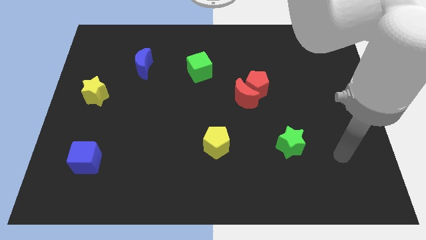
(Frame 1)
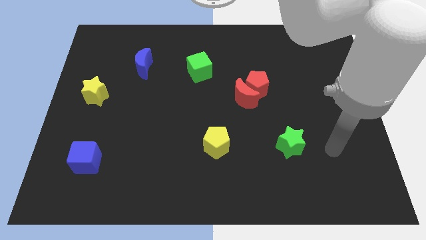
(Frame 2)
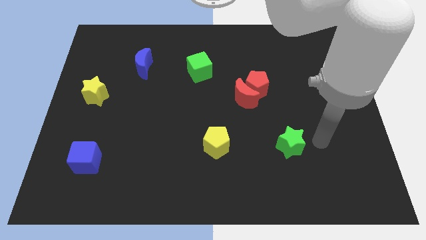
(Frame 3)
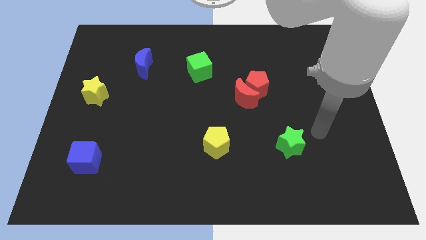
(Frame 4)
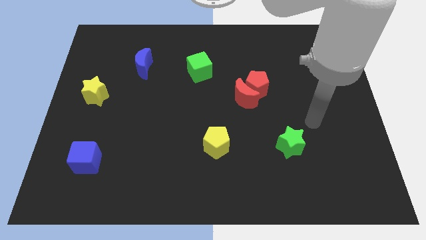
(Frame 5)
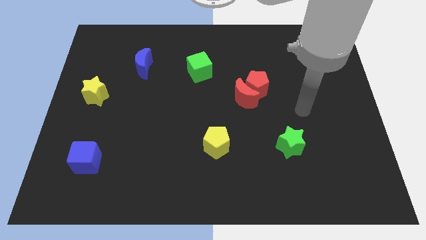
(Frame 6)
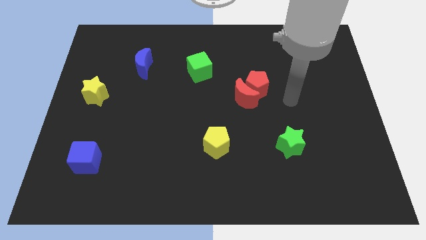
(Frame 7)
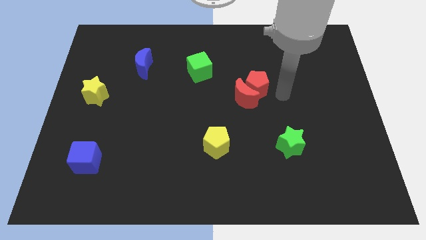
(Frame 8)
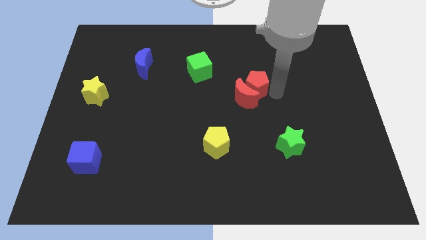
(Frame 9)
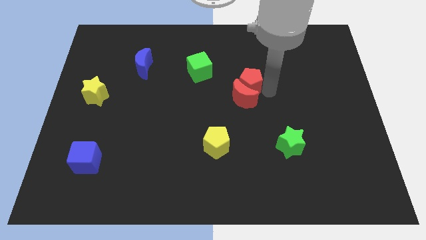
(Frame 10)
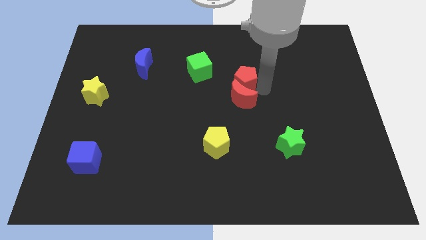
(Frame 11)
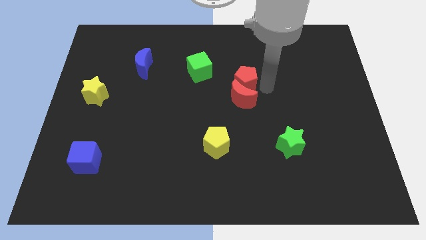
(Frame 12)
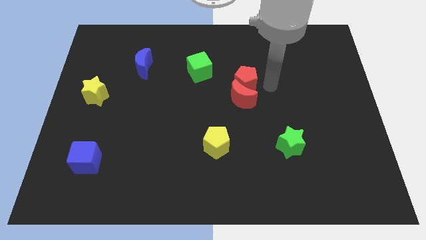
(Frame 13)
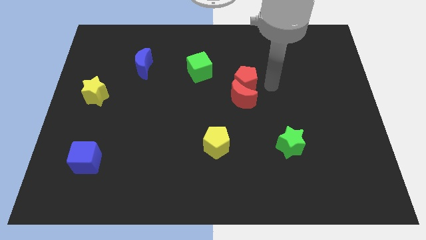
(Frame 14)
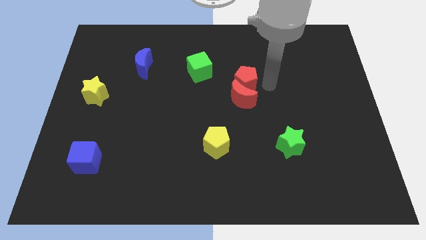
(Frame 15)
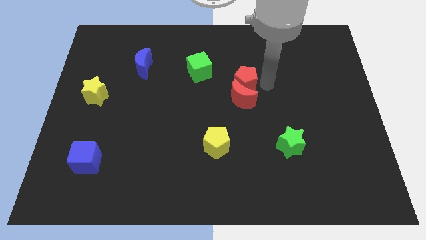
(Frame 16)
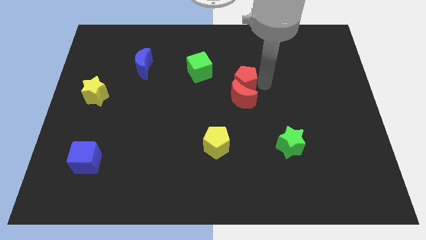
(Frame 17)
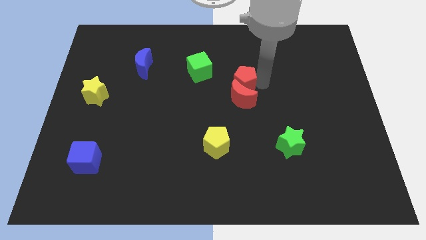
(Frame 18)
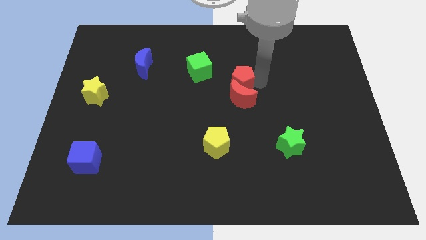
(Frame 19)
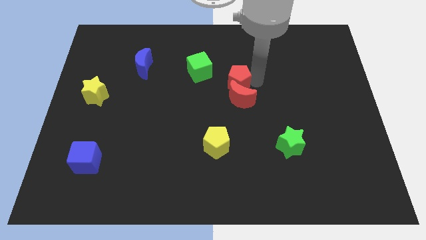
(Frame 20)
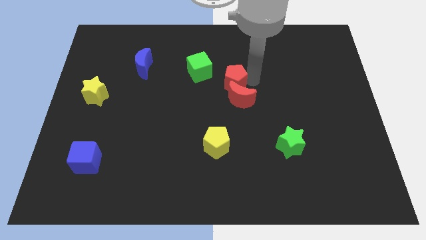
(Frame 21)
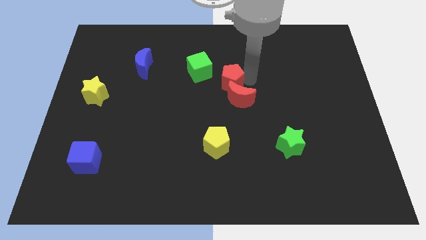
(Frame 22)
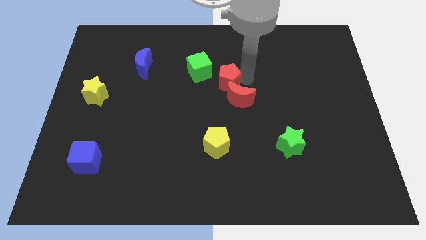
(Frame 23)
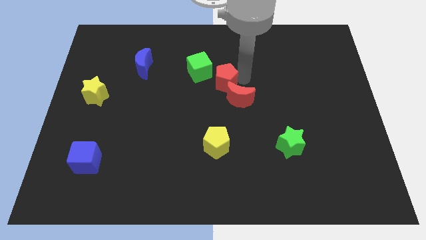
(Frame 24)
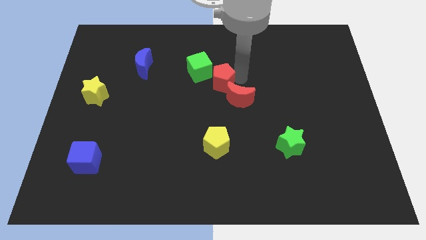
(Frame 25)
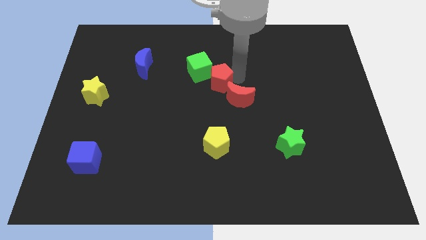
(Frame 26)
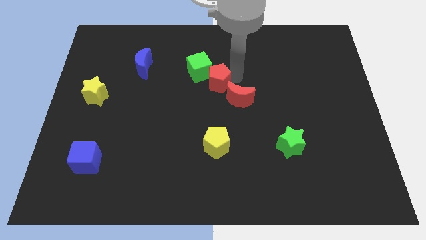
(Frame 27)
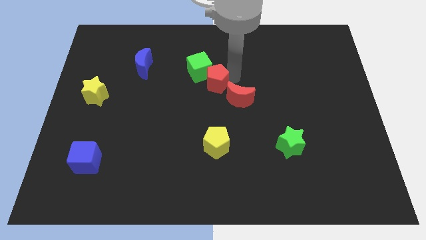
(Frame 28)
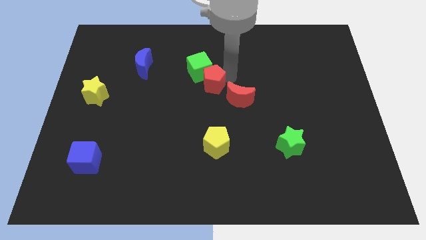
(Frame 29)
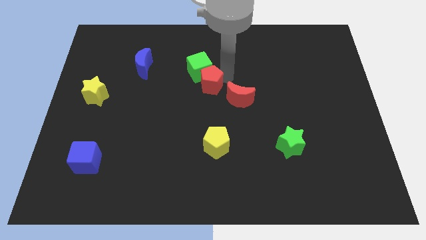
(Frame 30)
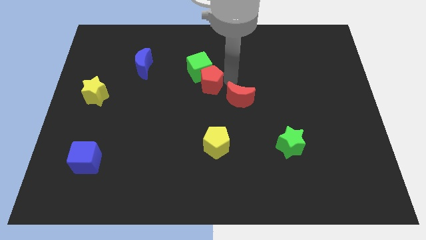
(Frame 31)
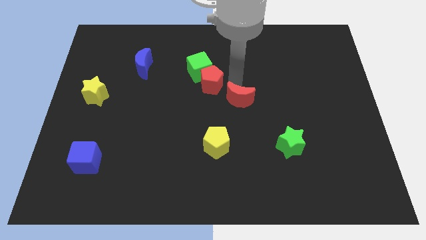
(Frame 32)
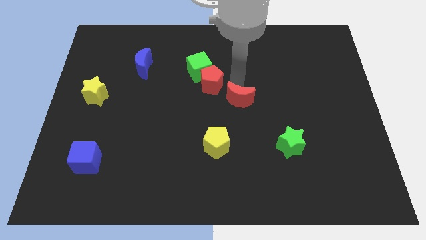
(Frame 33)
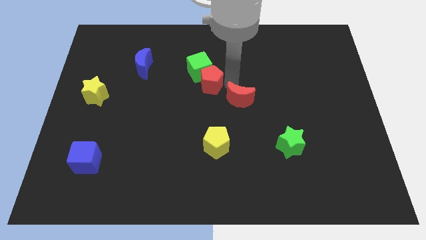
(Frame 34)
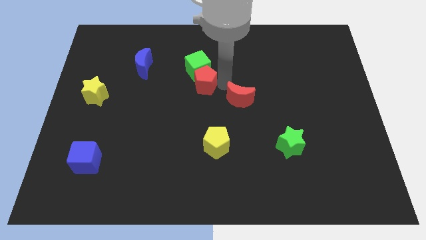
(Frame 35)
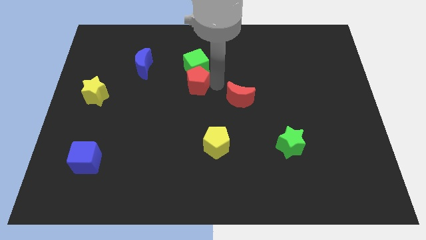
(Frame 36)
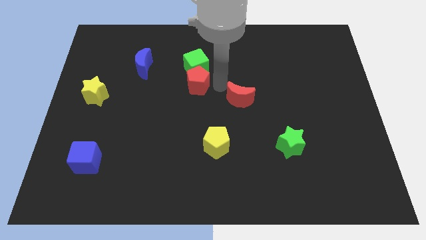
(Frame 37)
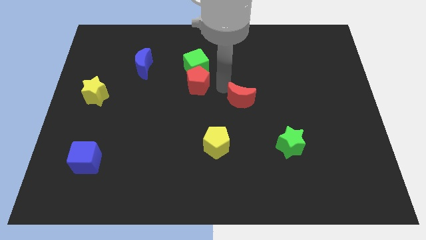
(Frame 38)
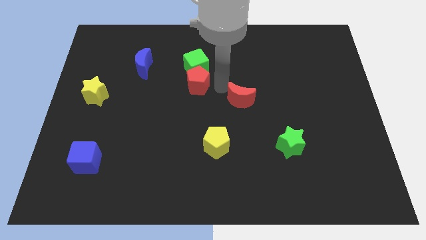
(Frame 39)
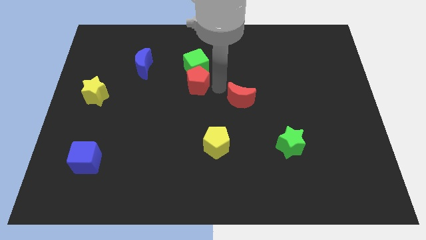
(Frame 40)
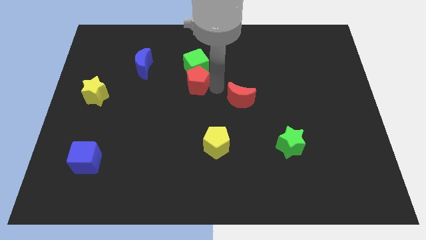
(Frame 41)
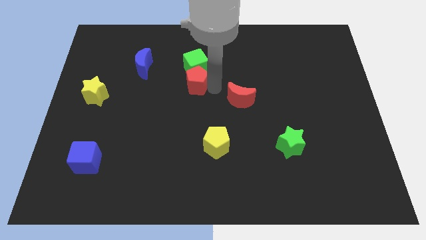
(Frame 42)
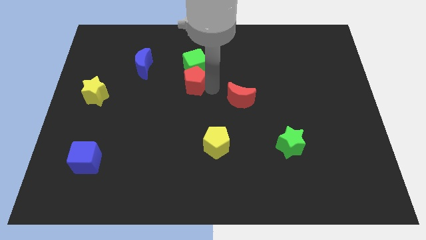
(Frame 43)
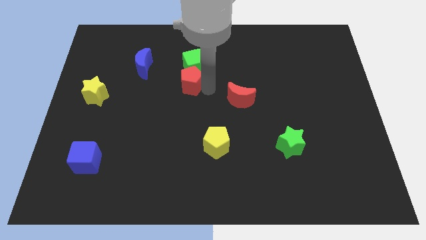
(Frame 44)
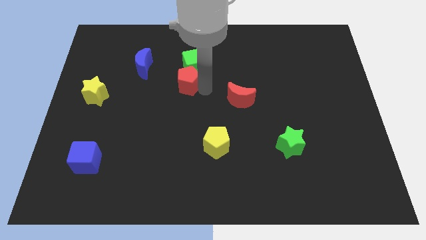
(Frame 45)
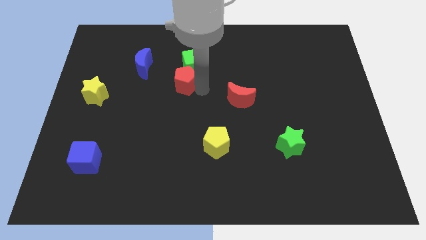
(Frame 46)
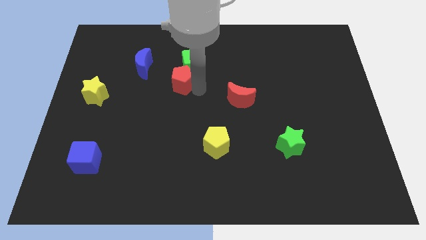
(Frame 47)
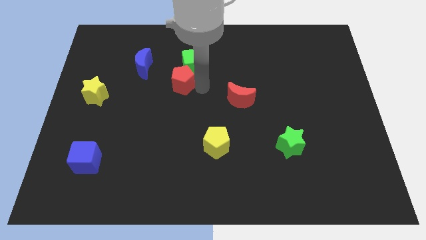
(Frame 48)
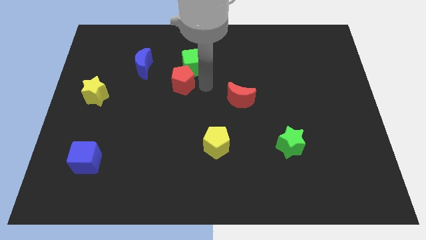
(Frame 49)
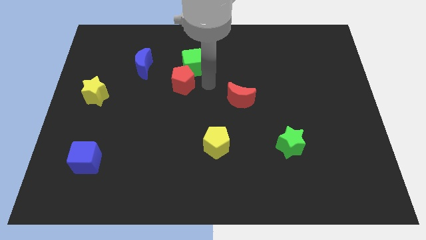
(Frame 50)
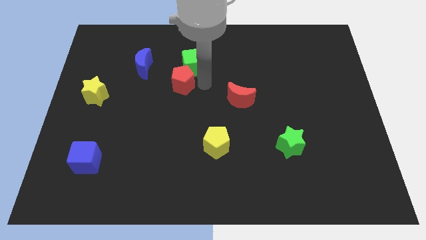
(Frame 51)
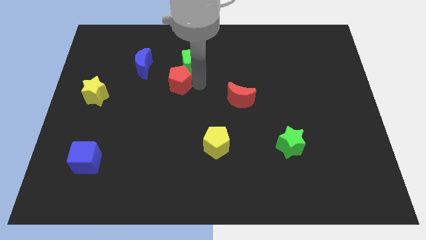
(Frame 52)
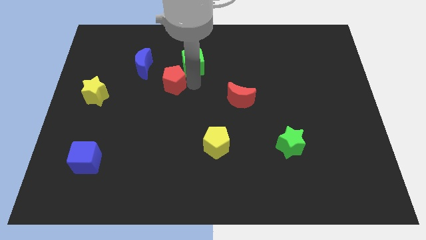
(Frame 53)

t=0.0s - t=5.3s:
push the red pentagon to the left

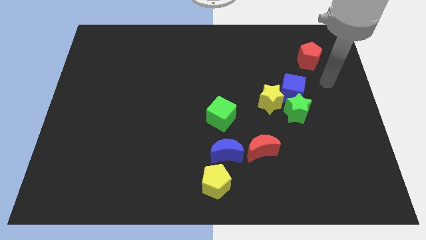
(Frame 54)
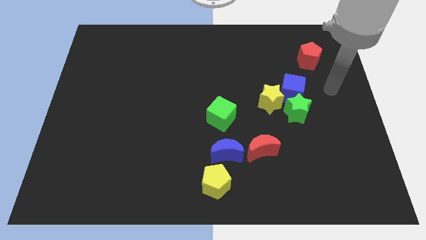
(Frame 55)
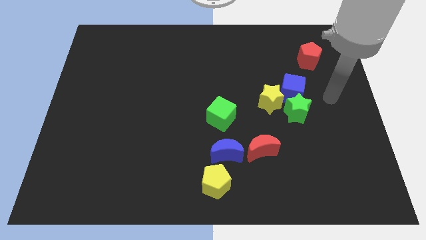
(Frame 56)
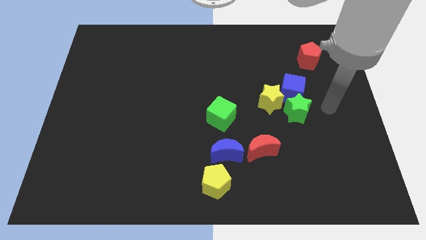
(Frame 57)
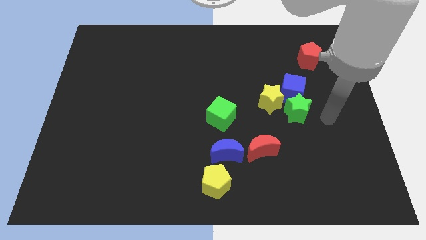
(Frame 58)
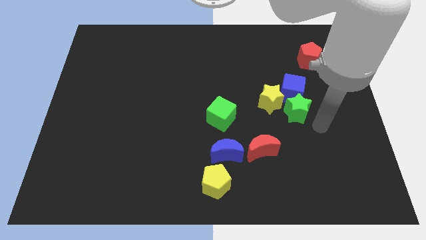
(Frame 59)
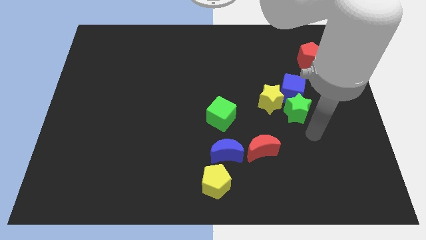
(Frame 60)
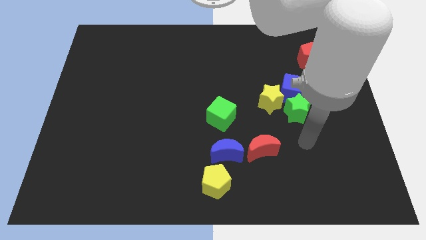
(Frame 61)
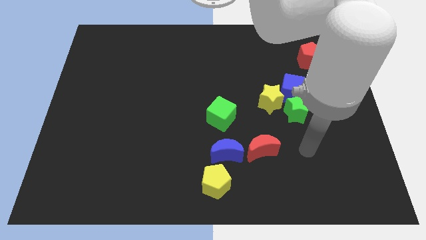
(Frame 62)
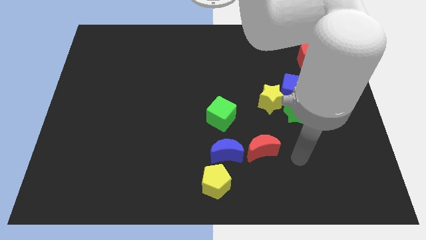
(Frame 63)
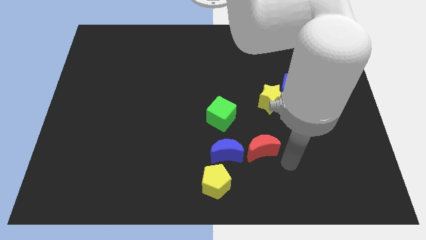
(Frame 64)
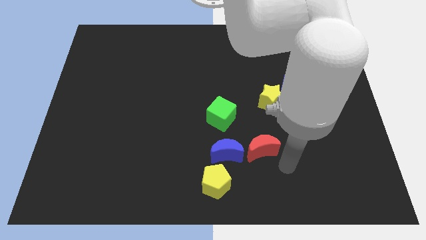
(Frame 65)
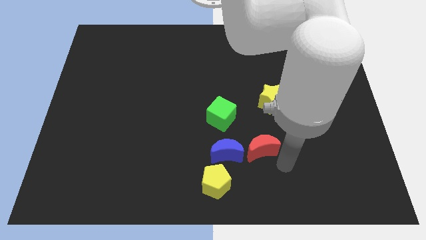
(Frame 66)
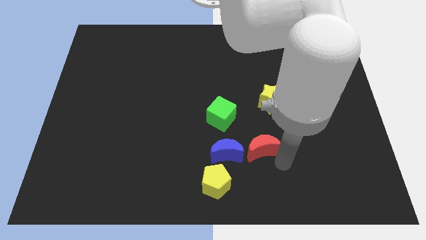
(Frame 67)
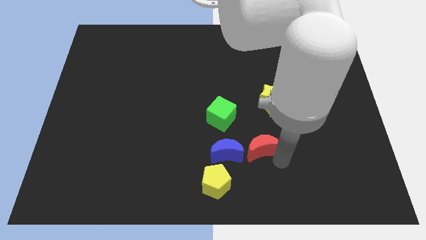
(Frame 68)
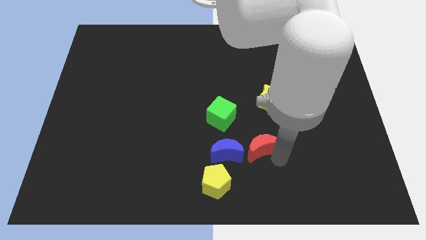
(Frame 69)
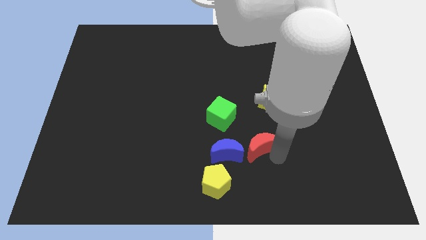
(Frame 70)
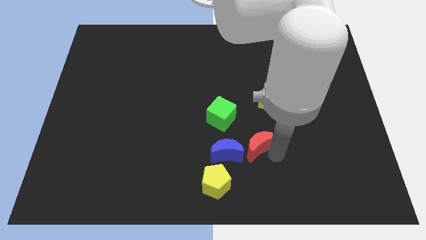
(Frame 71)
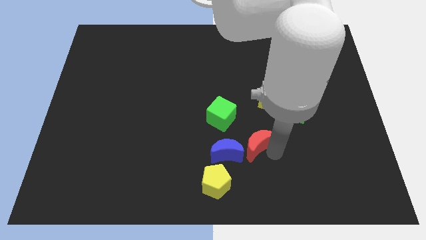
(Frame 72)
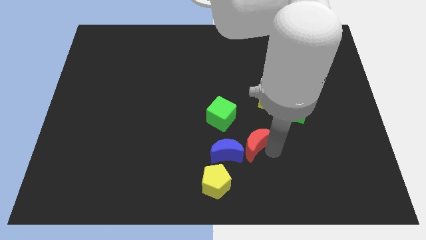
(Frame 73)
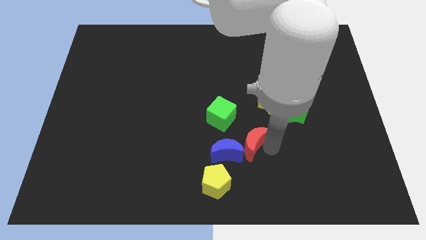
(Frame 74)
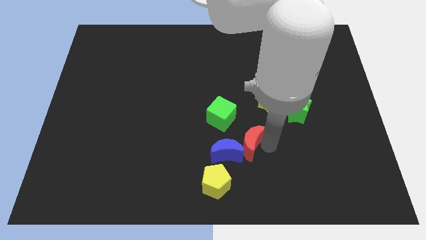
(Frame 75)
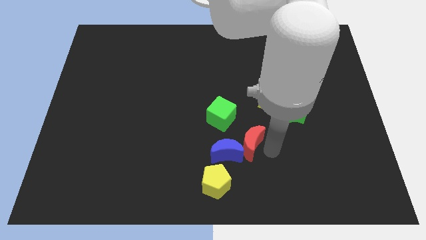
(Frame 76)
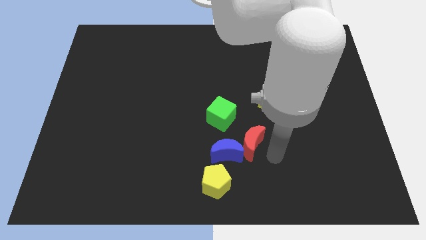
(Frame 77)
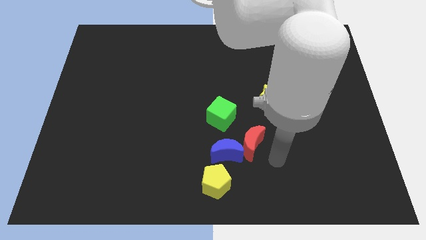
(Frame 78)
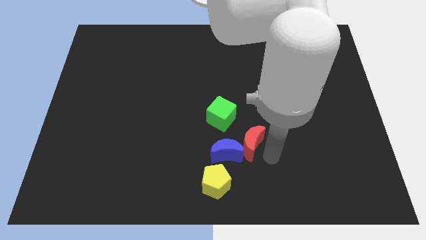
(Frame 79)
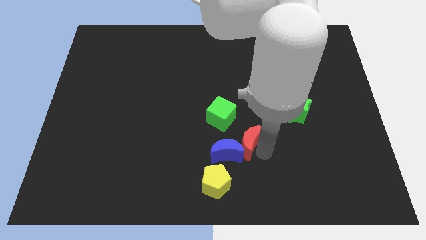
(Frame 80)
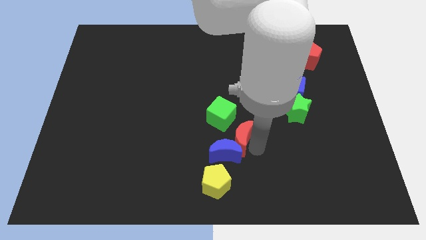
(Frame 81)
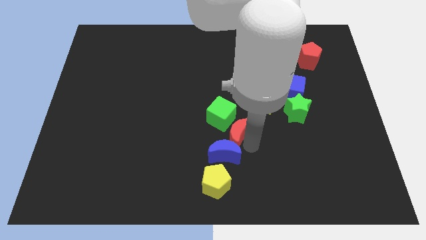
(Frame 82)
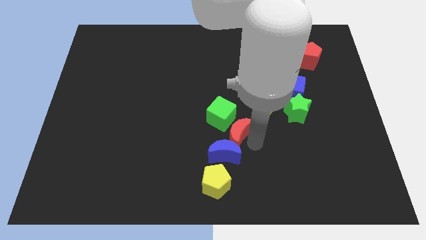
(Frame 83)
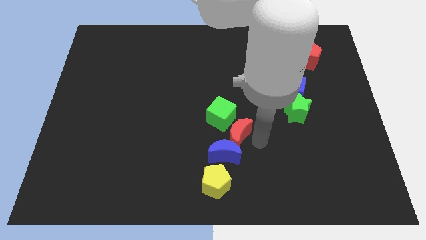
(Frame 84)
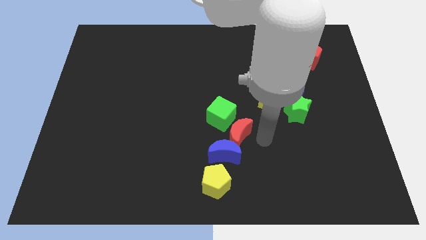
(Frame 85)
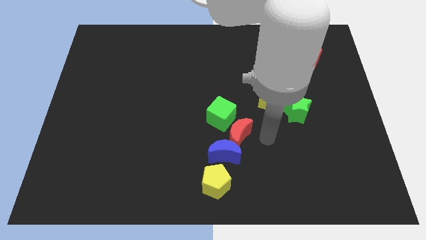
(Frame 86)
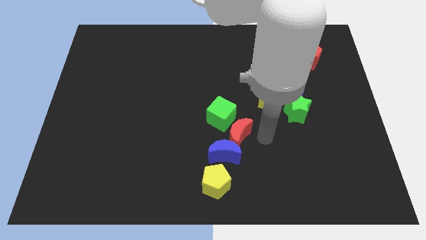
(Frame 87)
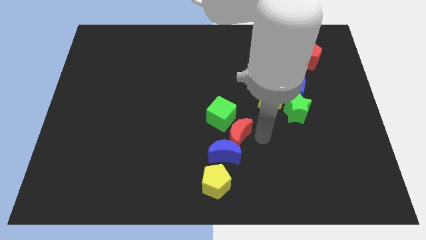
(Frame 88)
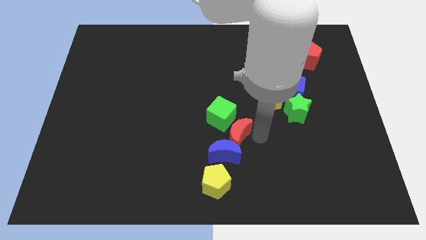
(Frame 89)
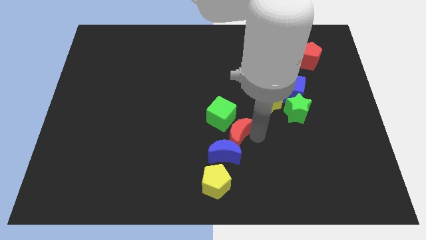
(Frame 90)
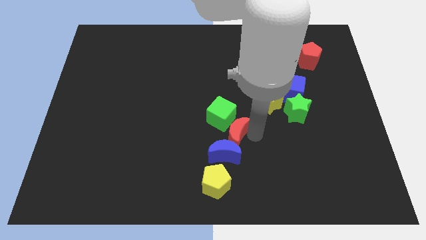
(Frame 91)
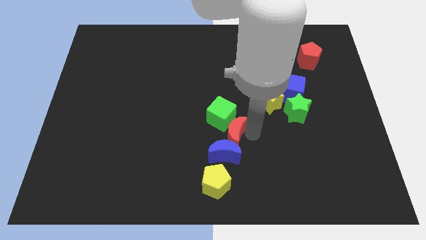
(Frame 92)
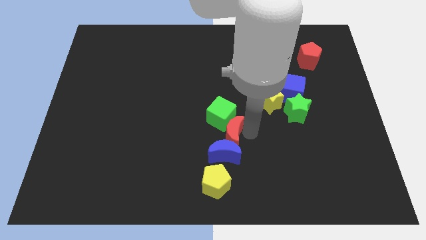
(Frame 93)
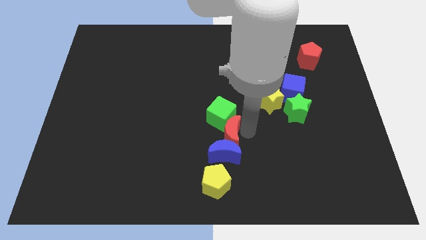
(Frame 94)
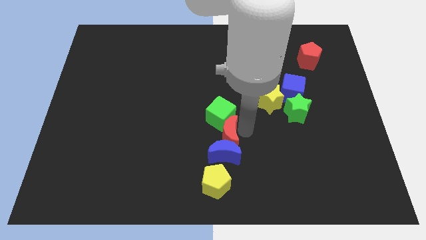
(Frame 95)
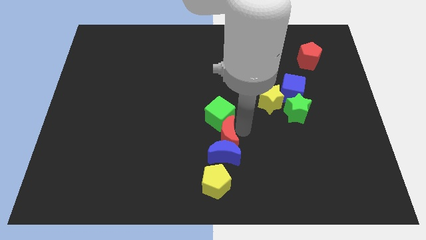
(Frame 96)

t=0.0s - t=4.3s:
push the red moon to the left a little
